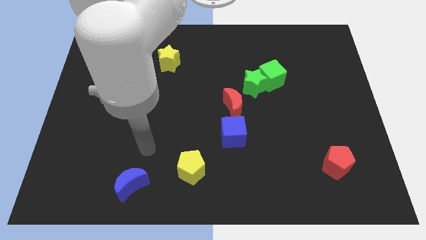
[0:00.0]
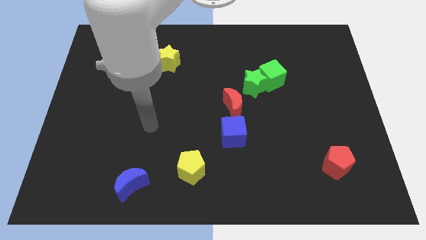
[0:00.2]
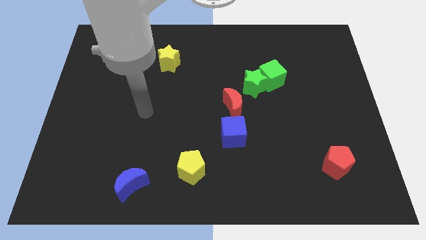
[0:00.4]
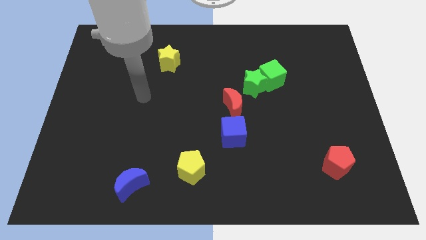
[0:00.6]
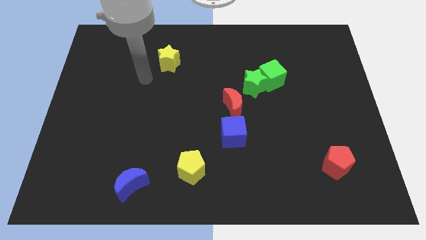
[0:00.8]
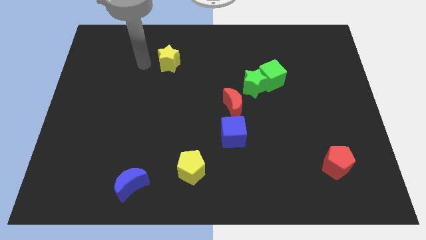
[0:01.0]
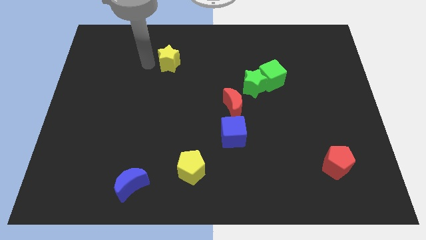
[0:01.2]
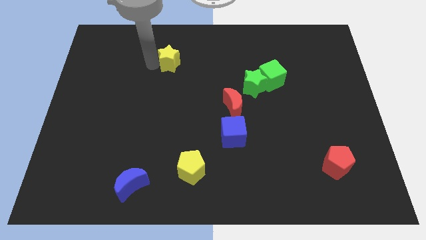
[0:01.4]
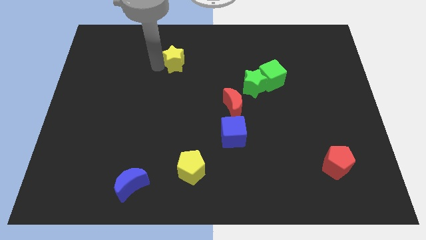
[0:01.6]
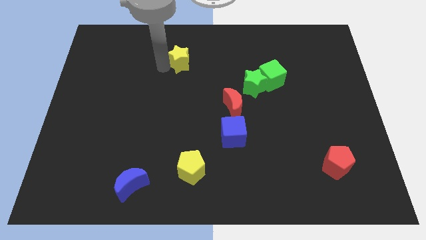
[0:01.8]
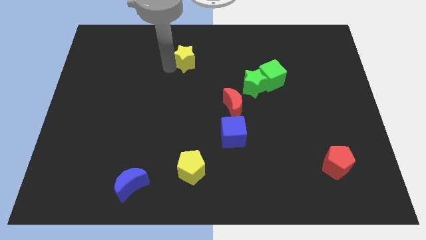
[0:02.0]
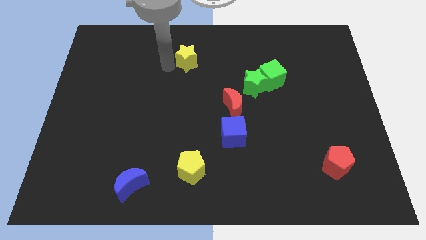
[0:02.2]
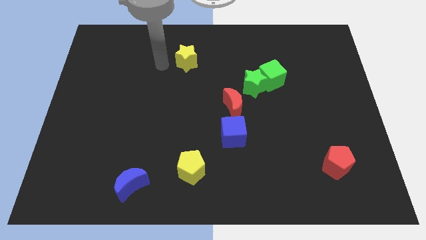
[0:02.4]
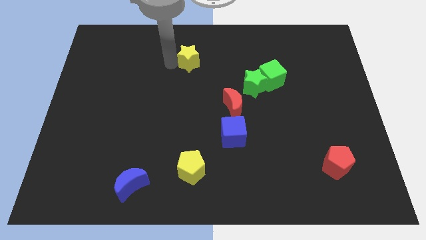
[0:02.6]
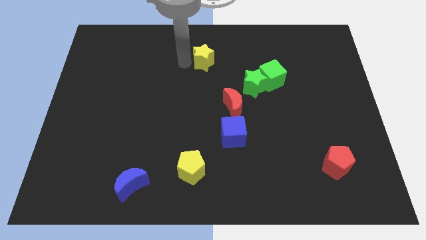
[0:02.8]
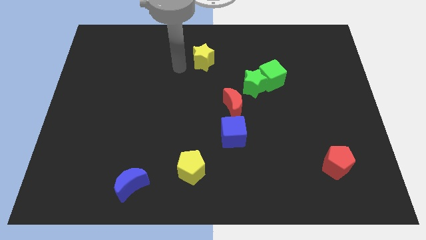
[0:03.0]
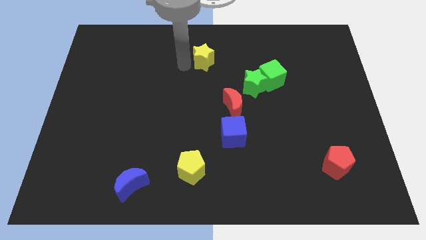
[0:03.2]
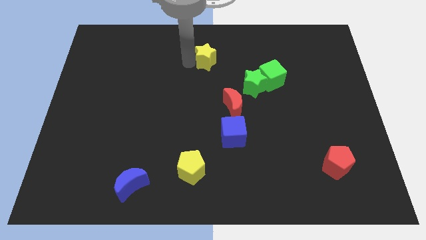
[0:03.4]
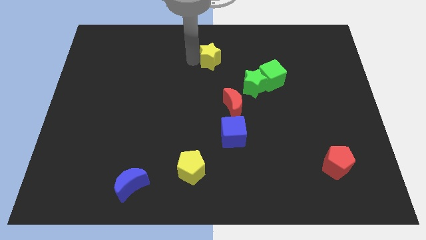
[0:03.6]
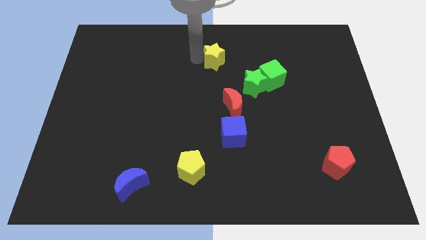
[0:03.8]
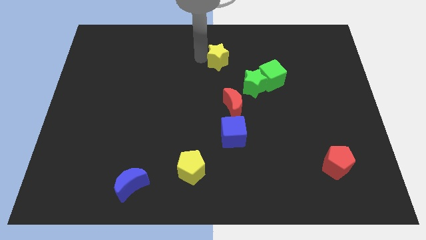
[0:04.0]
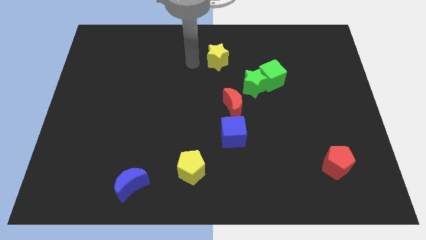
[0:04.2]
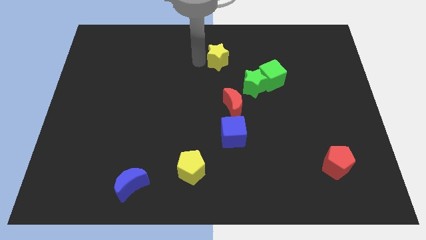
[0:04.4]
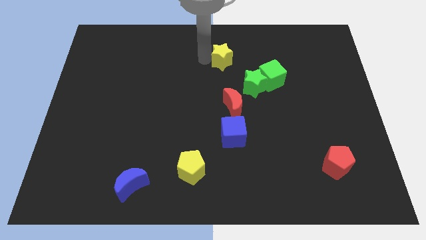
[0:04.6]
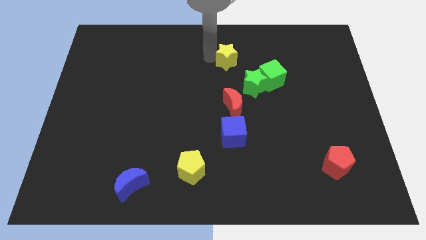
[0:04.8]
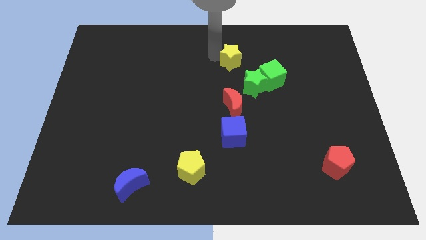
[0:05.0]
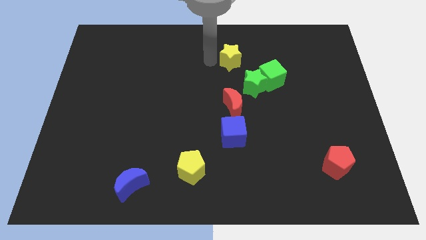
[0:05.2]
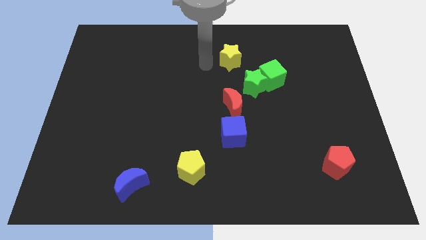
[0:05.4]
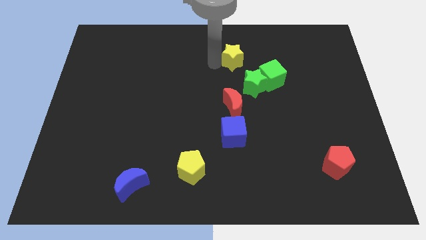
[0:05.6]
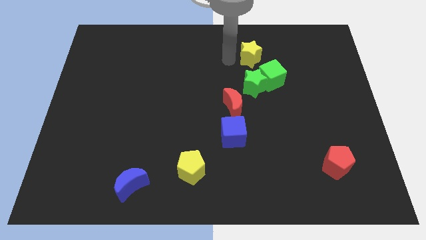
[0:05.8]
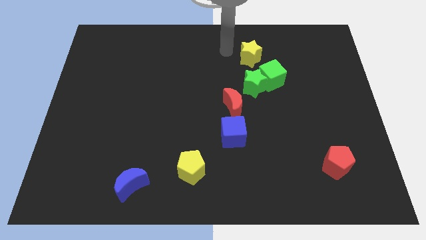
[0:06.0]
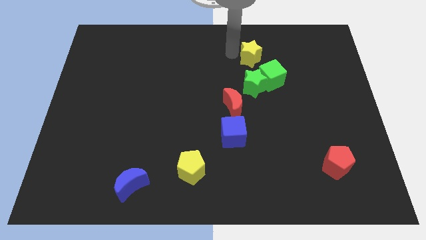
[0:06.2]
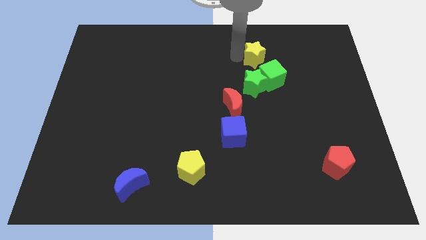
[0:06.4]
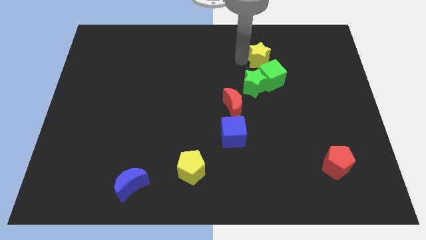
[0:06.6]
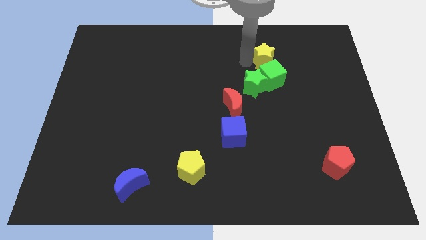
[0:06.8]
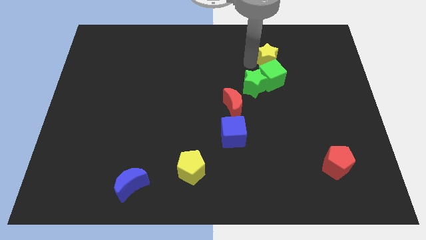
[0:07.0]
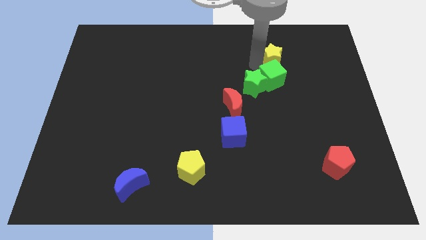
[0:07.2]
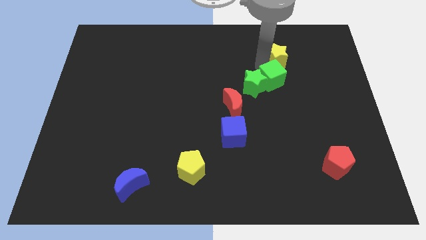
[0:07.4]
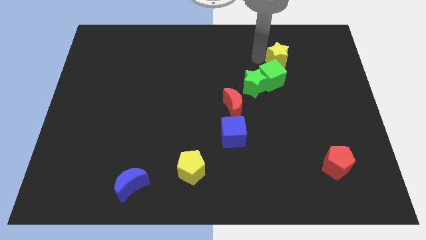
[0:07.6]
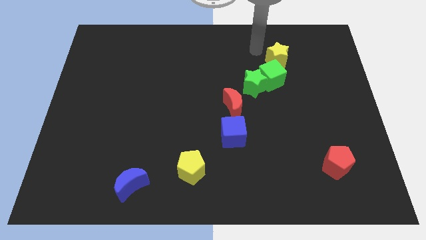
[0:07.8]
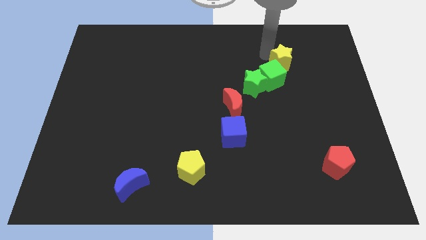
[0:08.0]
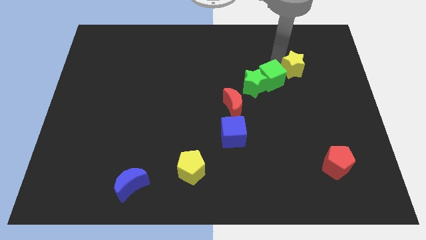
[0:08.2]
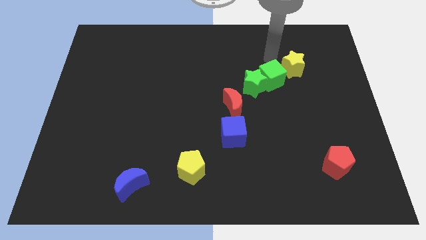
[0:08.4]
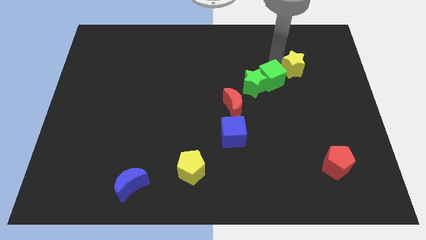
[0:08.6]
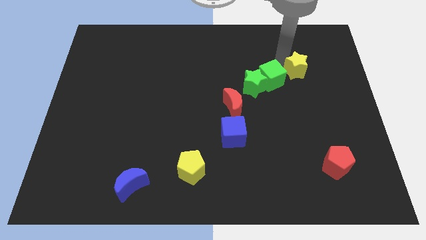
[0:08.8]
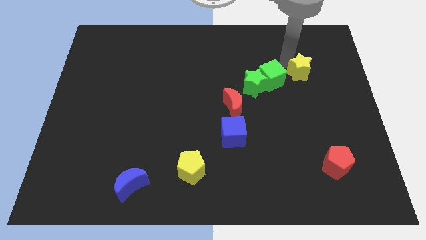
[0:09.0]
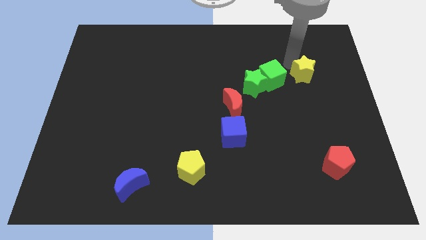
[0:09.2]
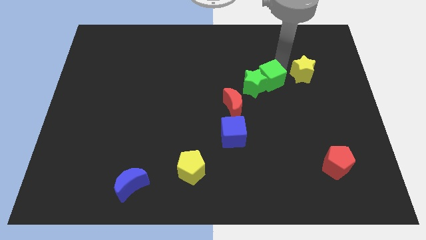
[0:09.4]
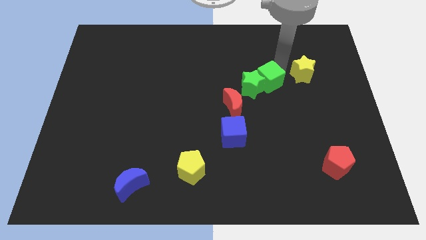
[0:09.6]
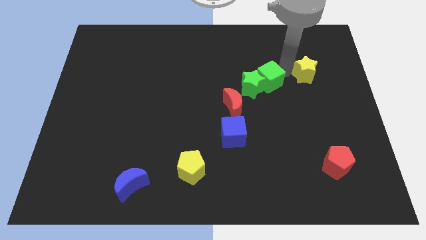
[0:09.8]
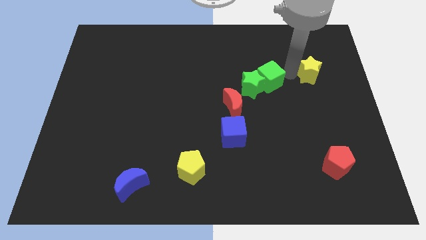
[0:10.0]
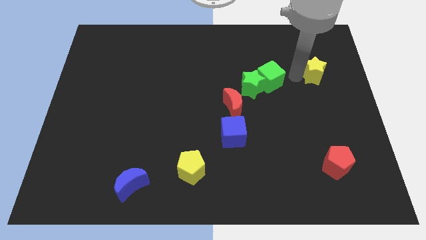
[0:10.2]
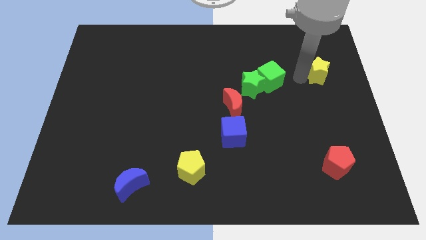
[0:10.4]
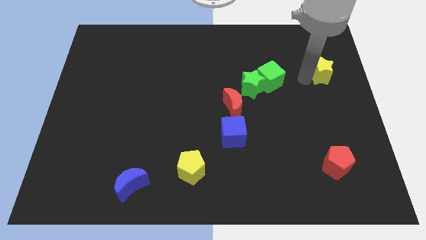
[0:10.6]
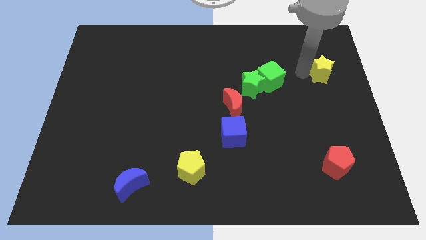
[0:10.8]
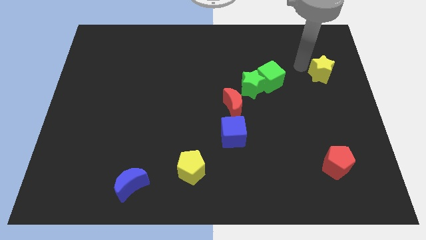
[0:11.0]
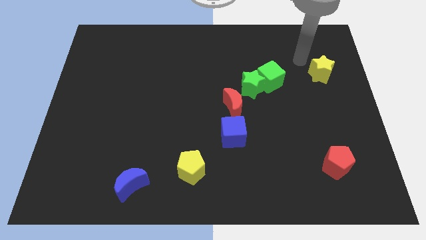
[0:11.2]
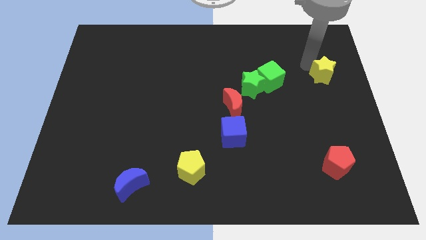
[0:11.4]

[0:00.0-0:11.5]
slide the yellow star to the right side of the board
